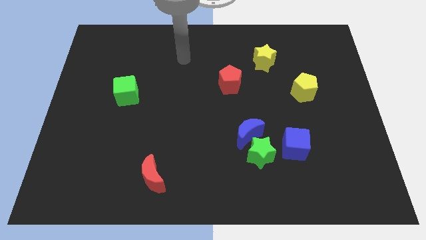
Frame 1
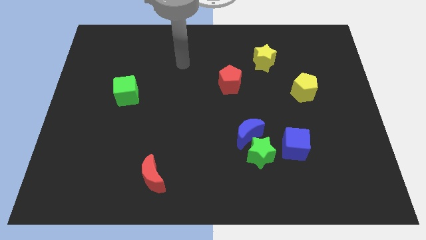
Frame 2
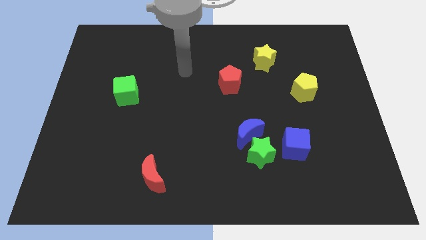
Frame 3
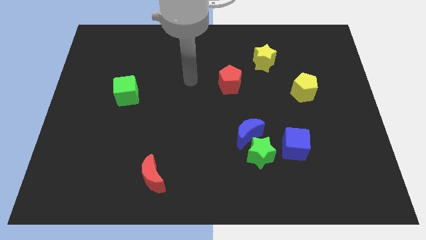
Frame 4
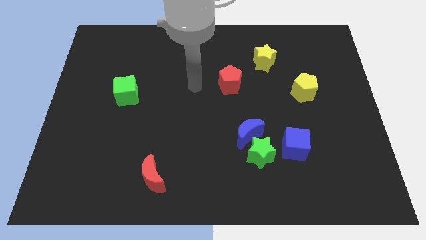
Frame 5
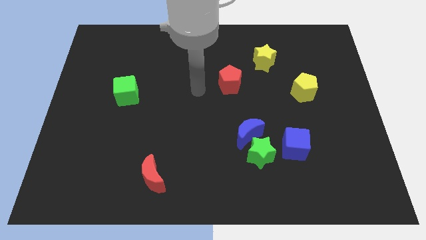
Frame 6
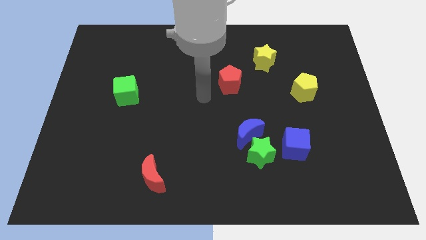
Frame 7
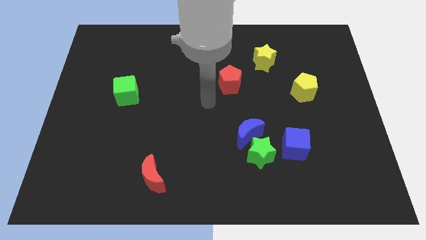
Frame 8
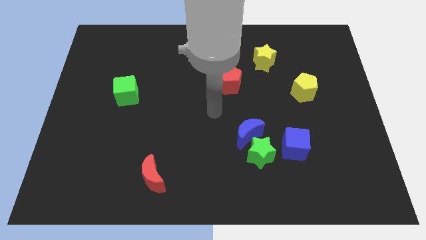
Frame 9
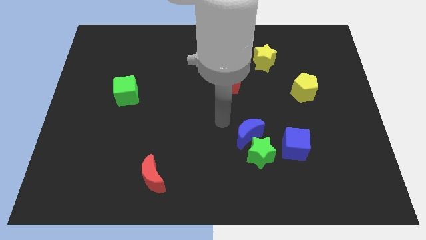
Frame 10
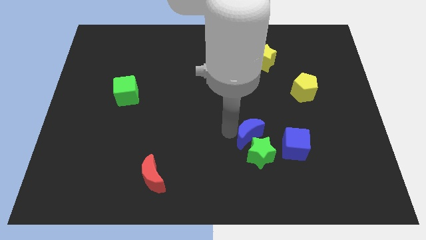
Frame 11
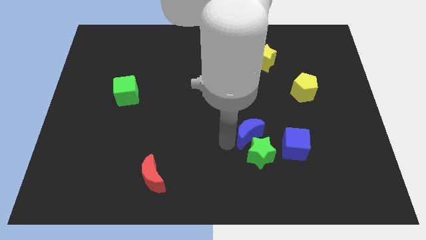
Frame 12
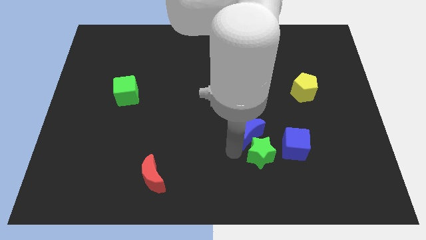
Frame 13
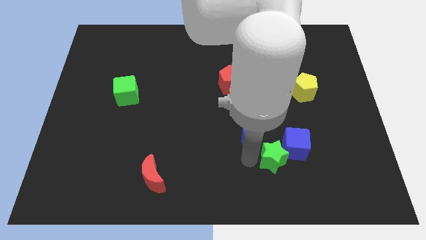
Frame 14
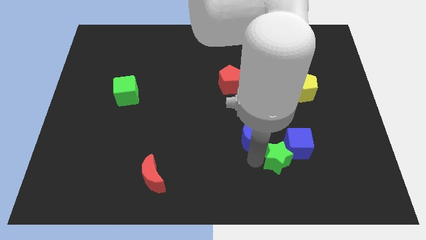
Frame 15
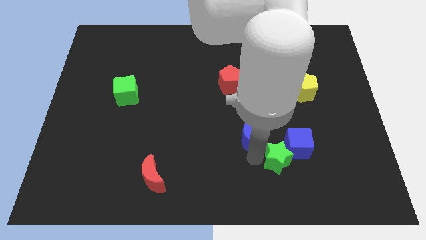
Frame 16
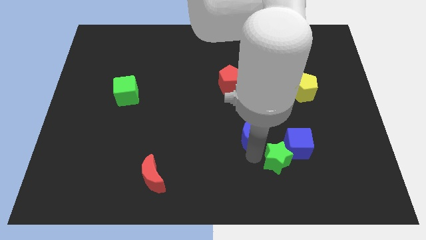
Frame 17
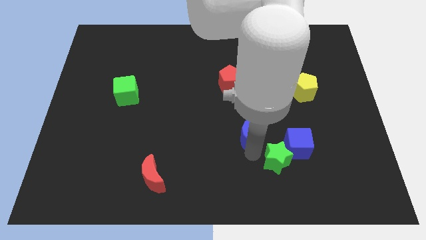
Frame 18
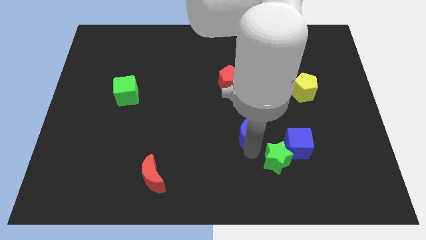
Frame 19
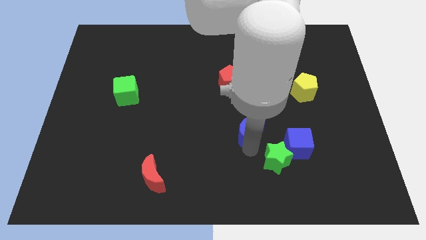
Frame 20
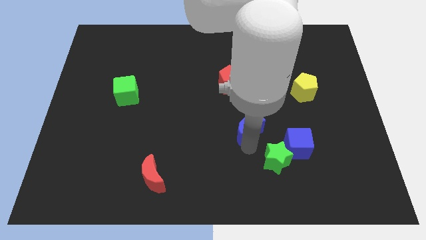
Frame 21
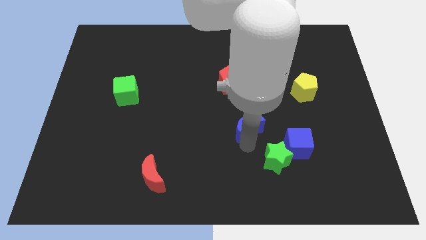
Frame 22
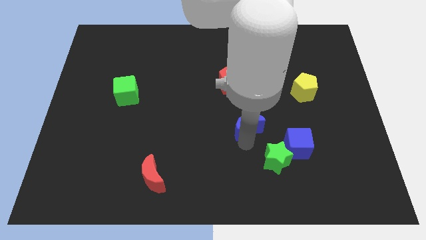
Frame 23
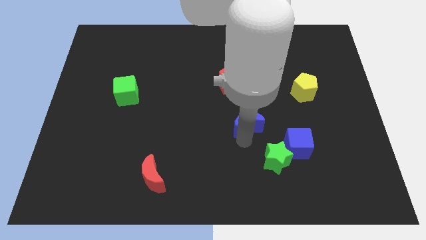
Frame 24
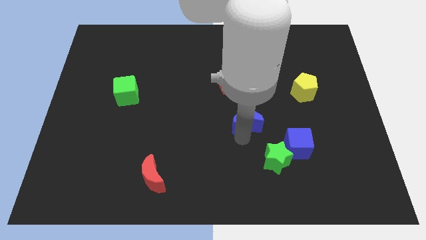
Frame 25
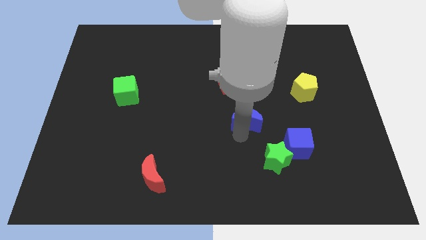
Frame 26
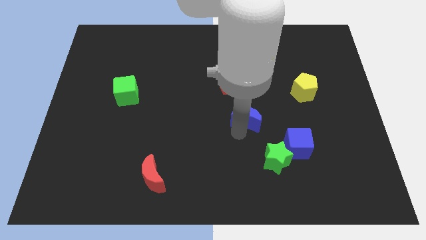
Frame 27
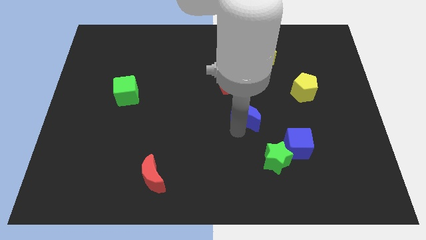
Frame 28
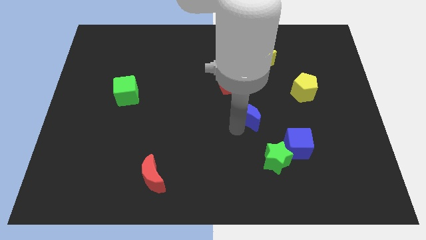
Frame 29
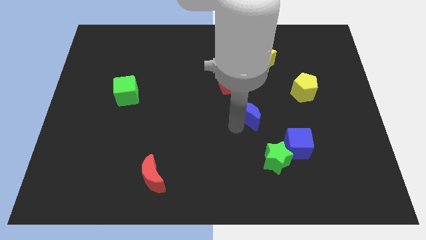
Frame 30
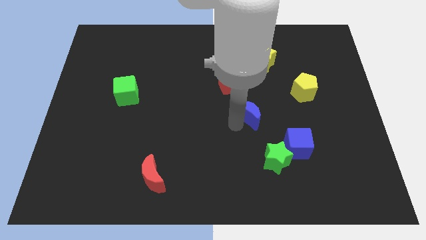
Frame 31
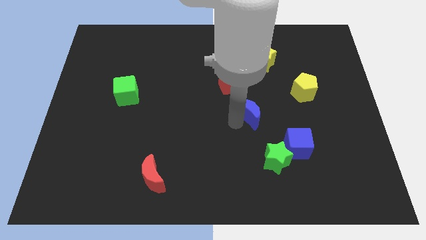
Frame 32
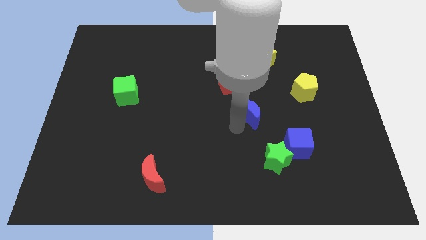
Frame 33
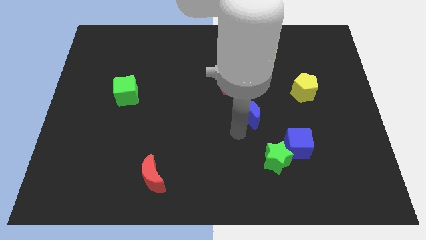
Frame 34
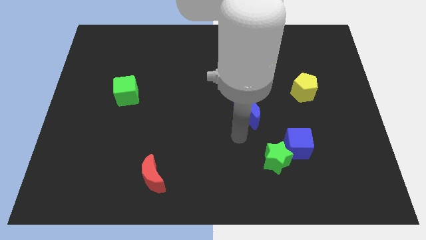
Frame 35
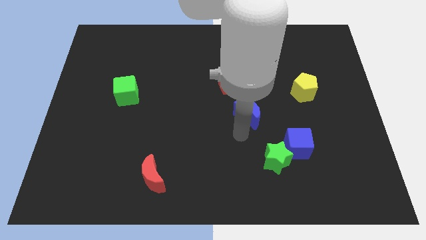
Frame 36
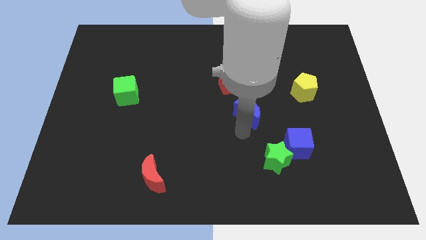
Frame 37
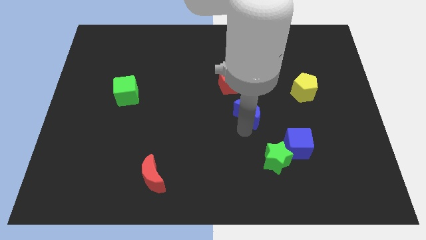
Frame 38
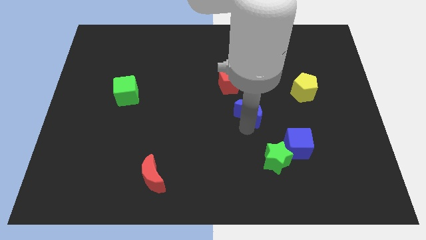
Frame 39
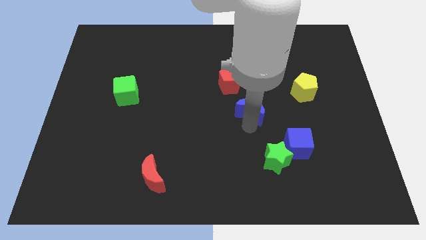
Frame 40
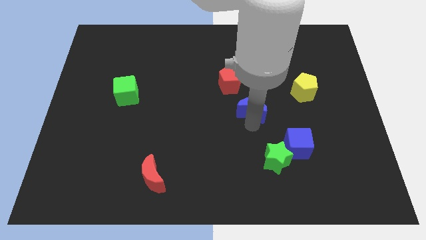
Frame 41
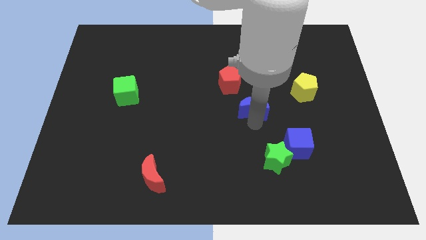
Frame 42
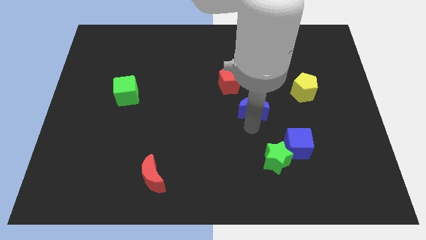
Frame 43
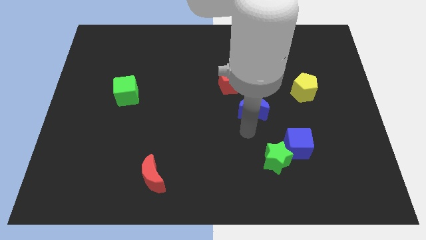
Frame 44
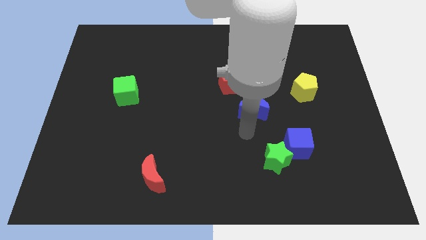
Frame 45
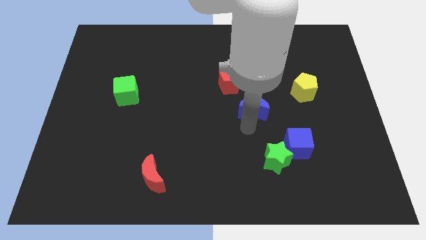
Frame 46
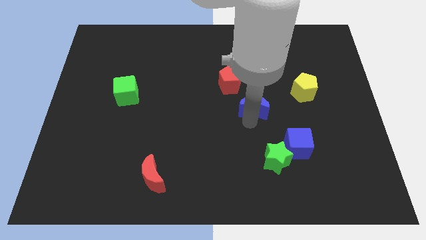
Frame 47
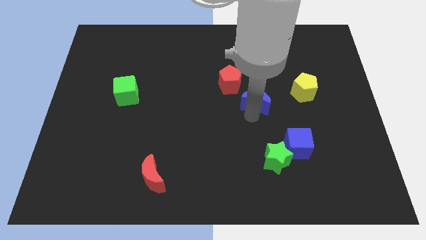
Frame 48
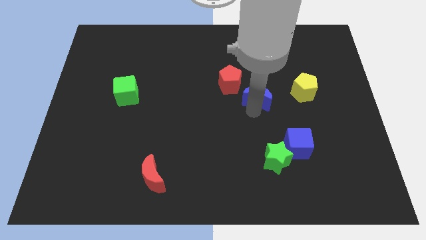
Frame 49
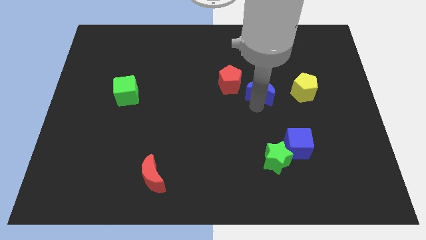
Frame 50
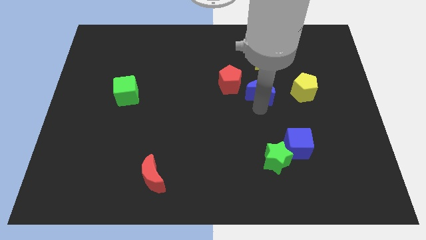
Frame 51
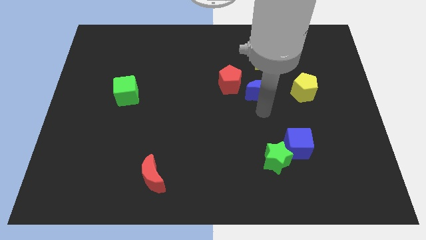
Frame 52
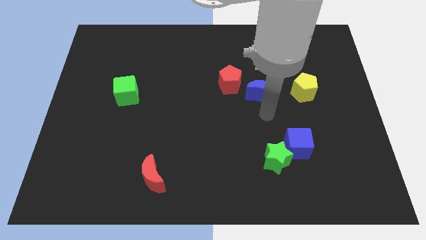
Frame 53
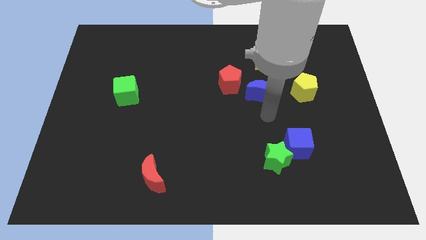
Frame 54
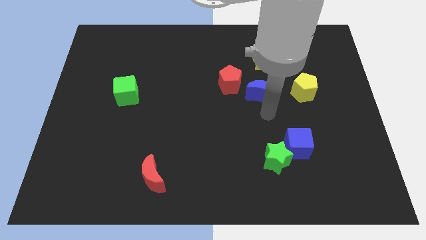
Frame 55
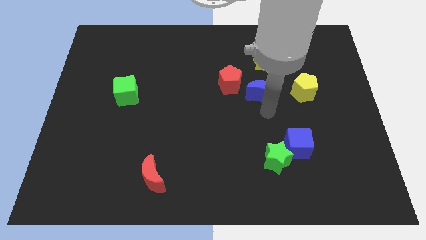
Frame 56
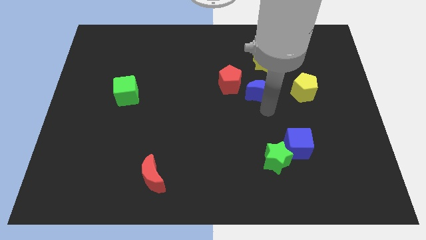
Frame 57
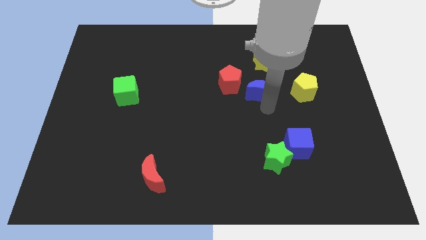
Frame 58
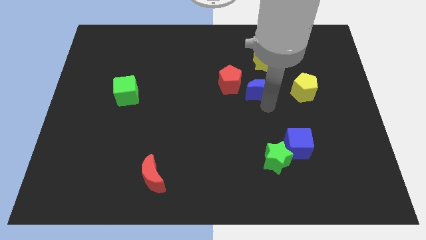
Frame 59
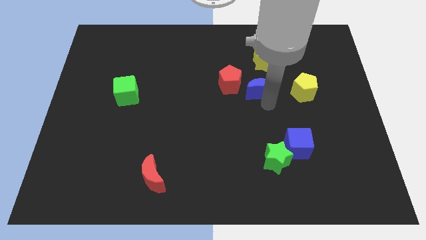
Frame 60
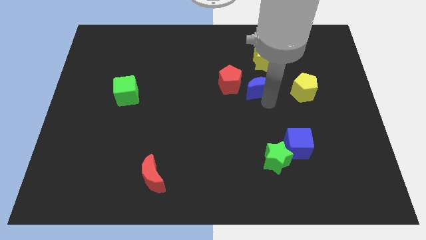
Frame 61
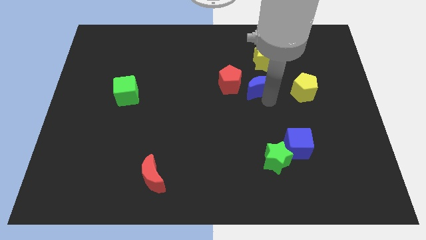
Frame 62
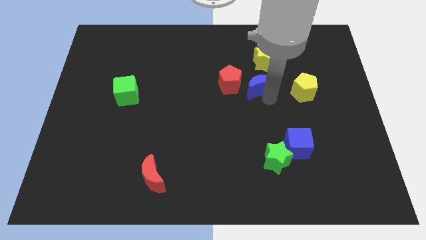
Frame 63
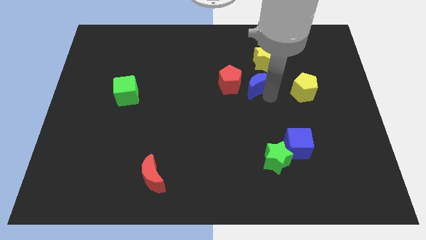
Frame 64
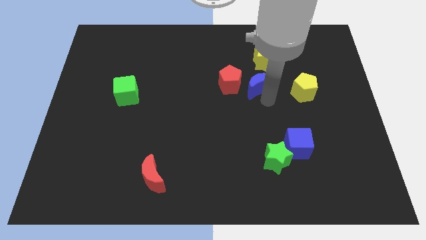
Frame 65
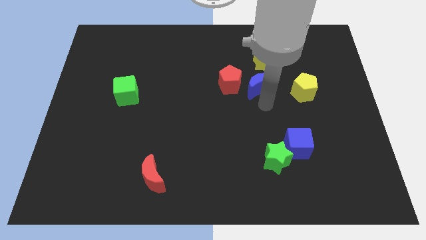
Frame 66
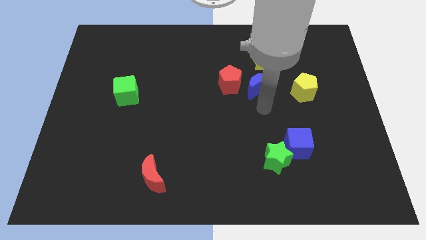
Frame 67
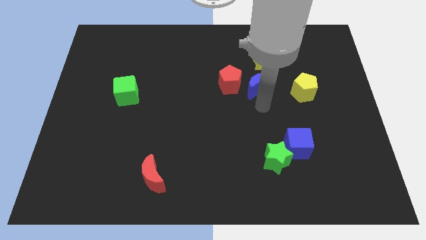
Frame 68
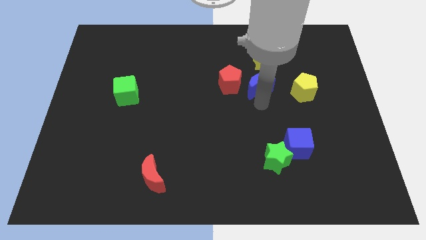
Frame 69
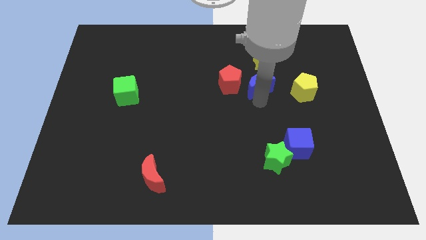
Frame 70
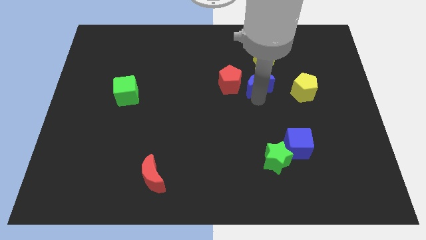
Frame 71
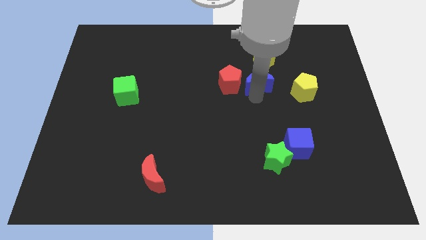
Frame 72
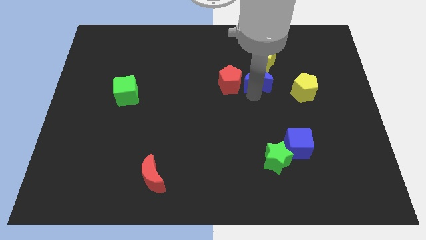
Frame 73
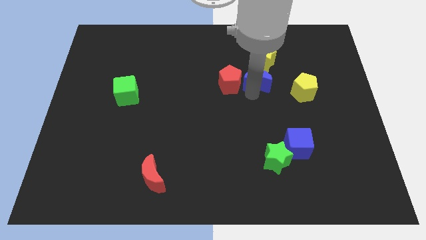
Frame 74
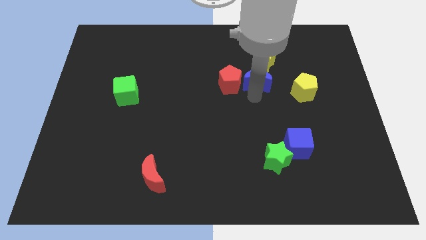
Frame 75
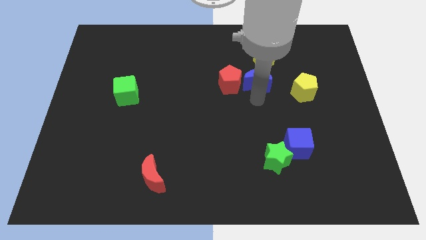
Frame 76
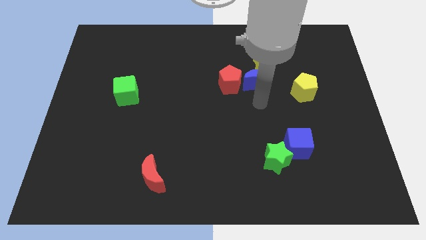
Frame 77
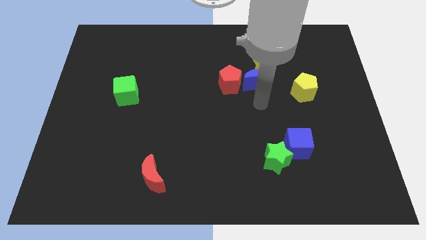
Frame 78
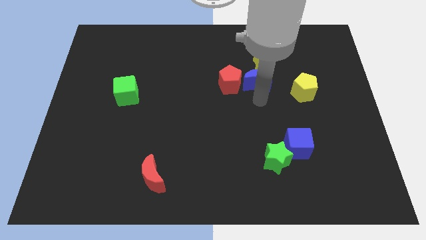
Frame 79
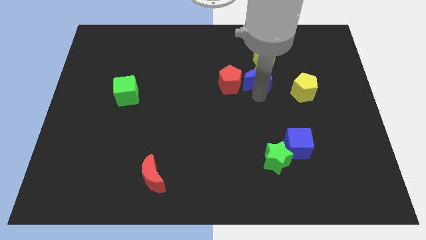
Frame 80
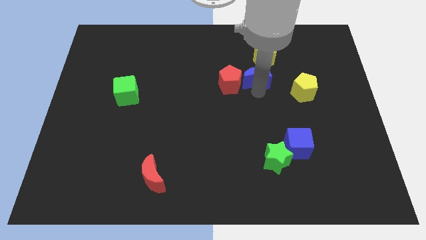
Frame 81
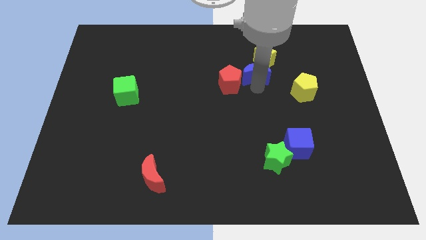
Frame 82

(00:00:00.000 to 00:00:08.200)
slide the blue moon towards the yellow star
